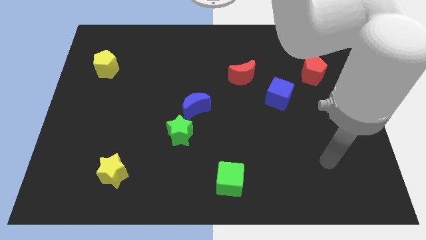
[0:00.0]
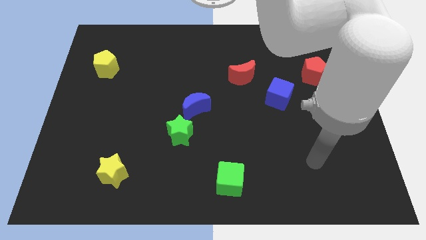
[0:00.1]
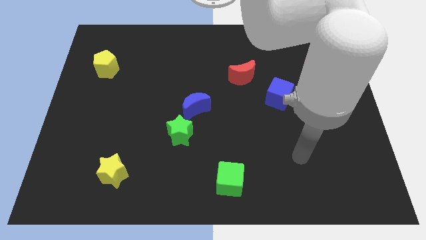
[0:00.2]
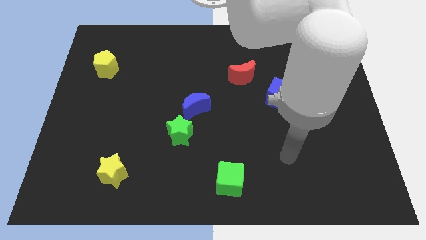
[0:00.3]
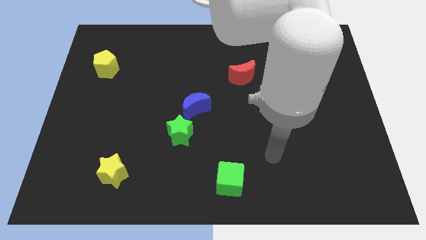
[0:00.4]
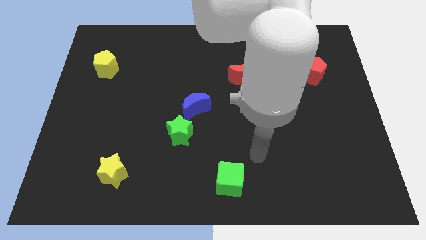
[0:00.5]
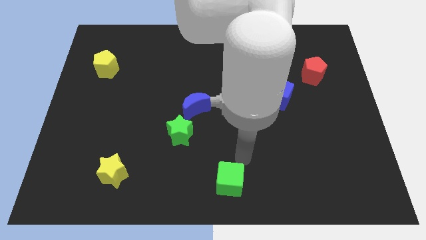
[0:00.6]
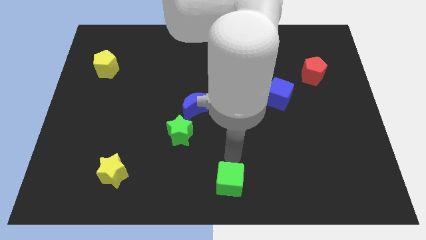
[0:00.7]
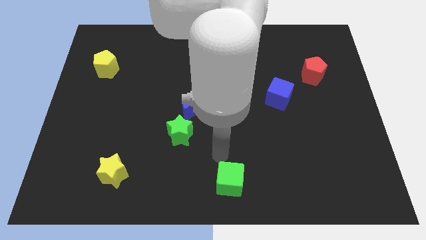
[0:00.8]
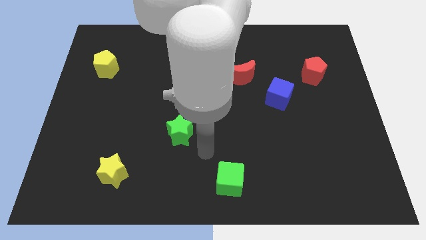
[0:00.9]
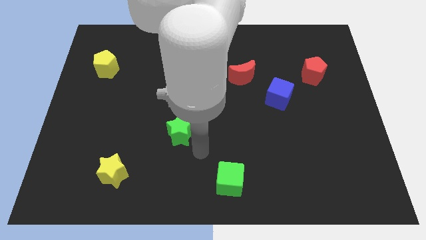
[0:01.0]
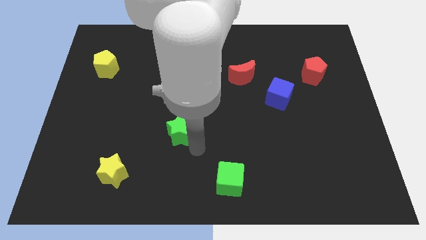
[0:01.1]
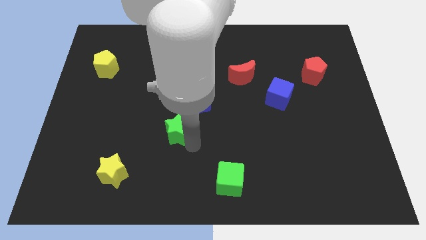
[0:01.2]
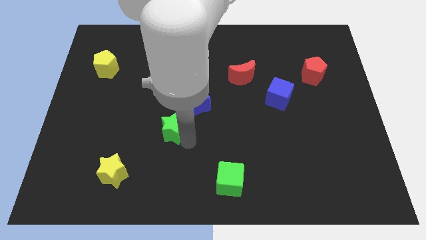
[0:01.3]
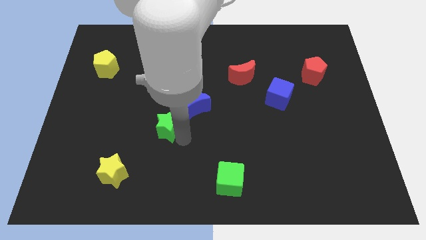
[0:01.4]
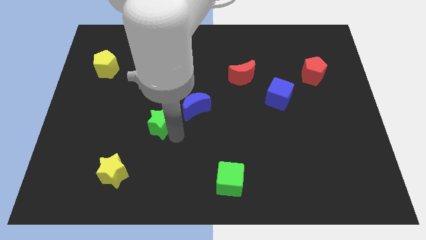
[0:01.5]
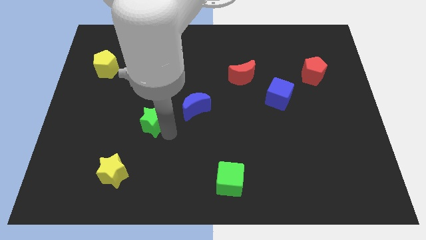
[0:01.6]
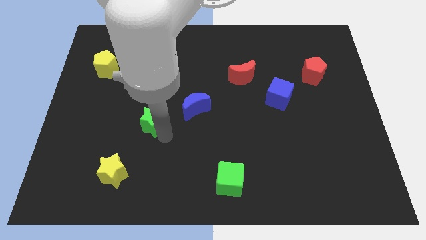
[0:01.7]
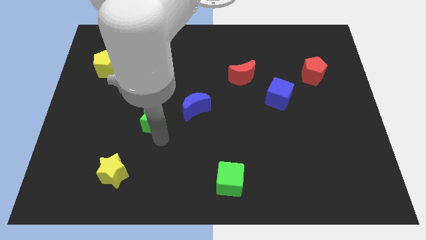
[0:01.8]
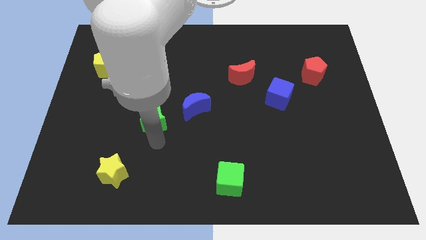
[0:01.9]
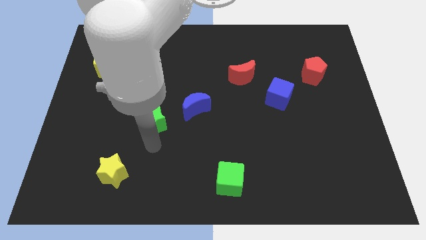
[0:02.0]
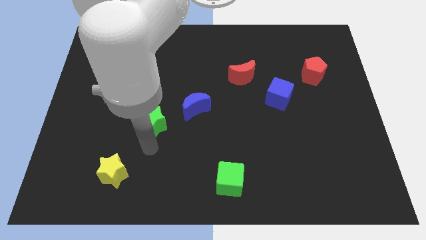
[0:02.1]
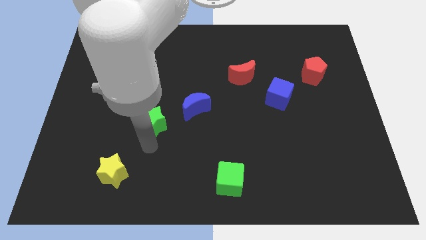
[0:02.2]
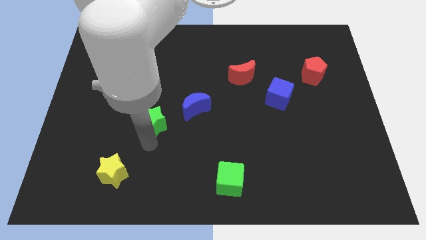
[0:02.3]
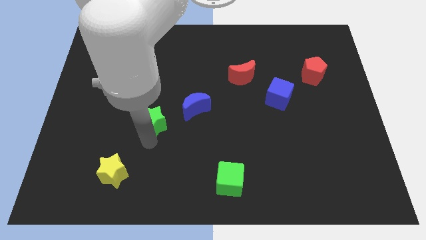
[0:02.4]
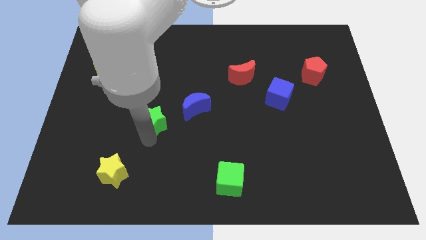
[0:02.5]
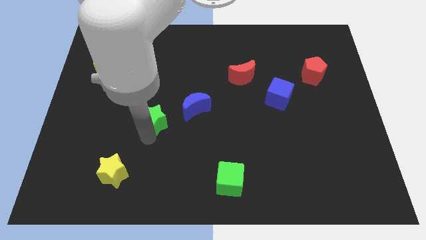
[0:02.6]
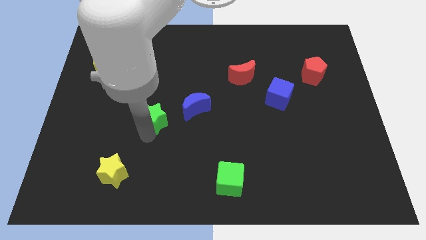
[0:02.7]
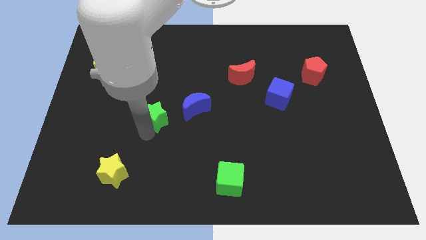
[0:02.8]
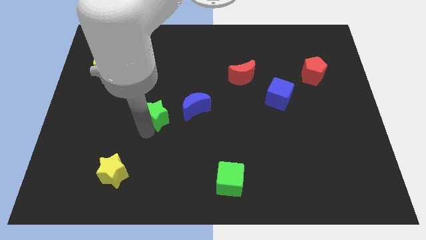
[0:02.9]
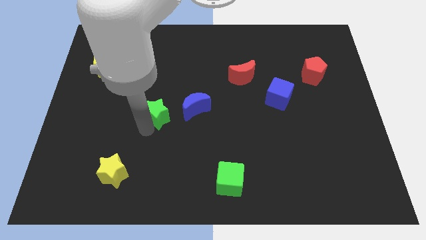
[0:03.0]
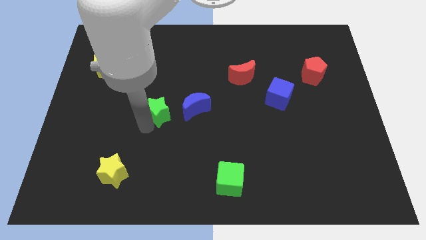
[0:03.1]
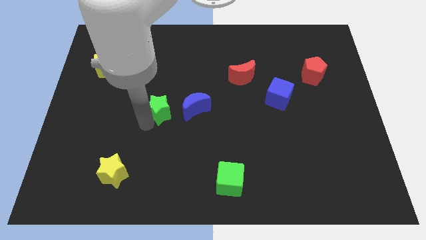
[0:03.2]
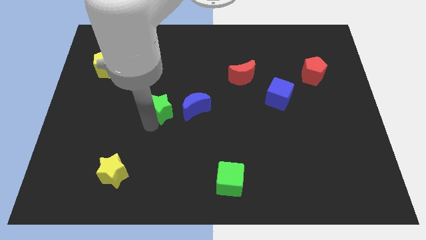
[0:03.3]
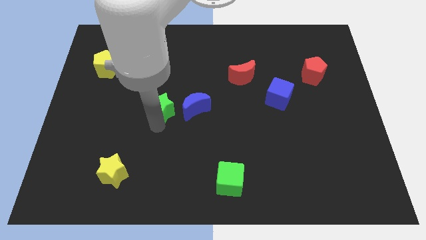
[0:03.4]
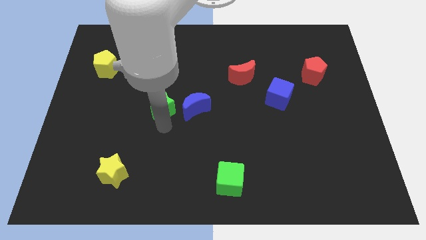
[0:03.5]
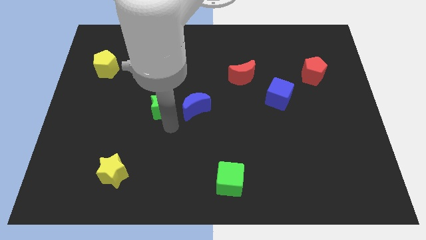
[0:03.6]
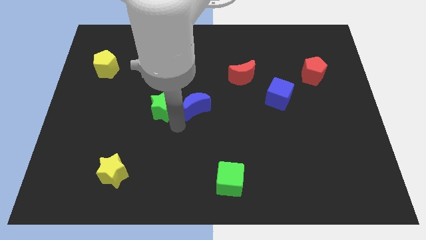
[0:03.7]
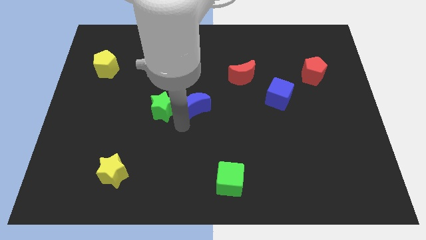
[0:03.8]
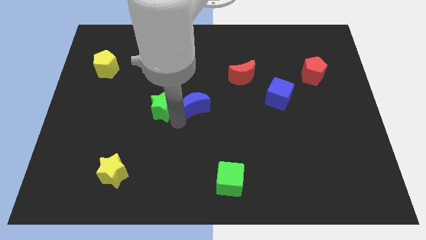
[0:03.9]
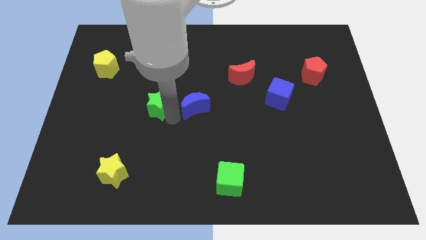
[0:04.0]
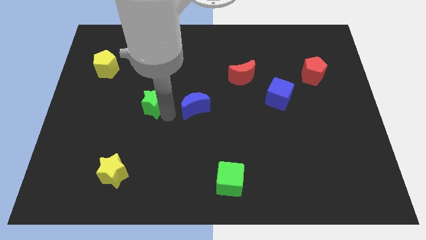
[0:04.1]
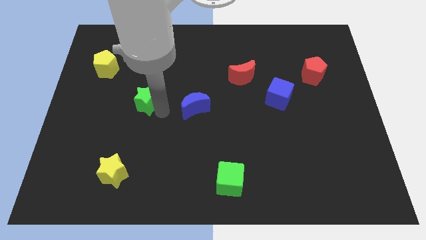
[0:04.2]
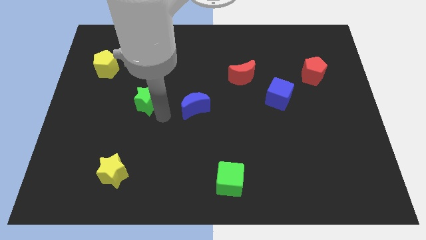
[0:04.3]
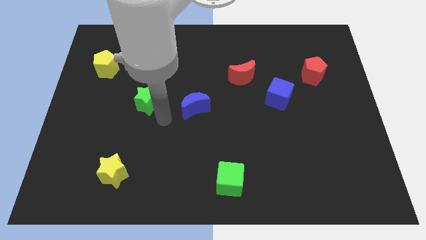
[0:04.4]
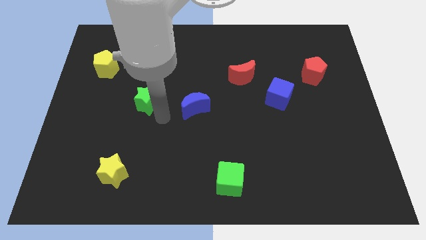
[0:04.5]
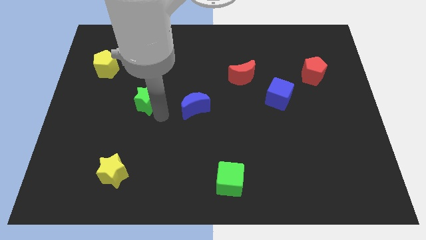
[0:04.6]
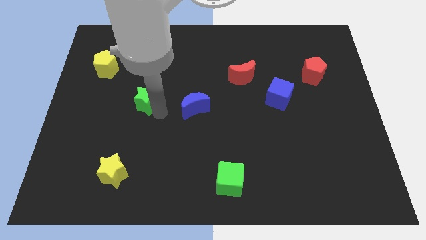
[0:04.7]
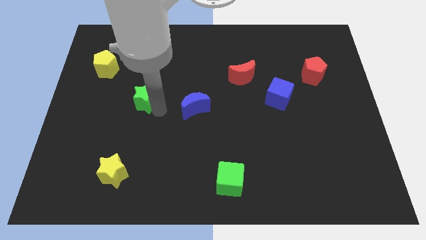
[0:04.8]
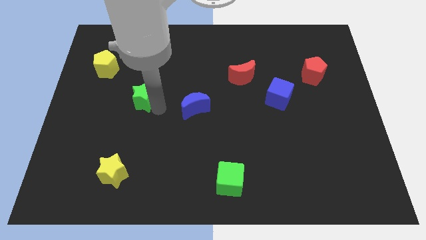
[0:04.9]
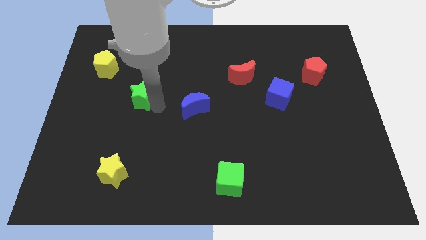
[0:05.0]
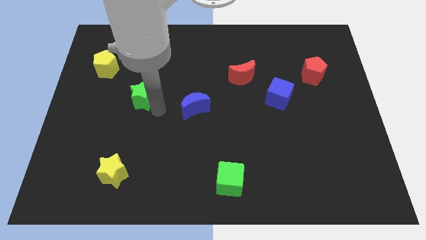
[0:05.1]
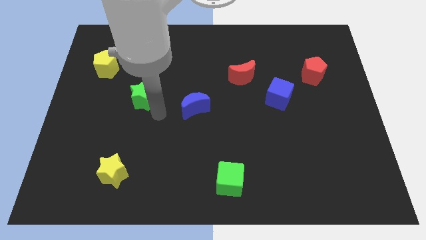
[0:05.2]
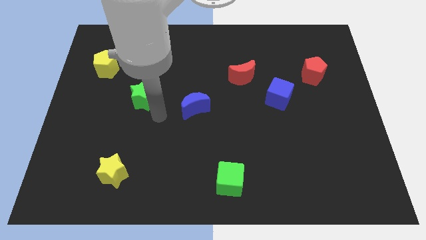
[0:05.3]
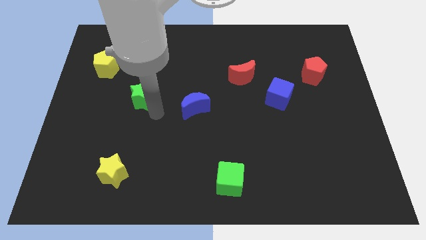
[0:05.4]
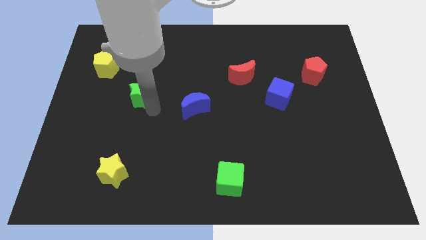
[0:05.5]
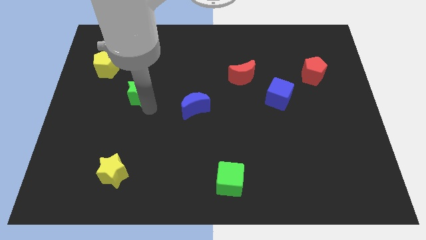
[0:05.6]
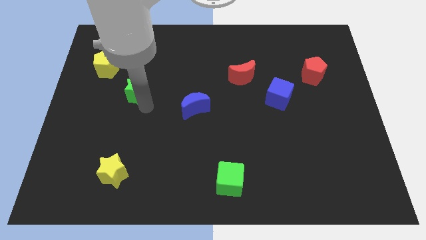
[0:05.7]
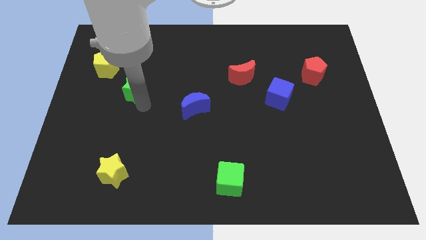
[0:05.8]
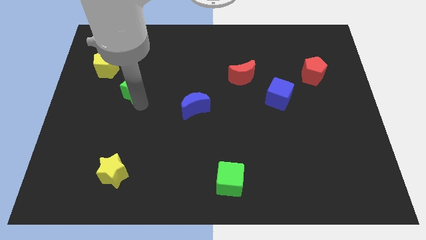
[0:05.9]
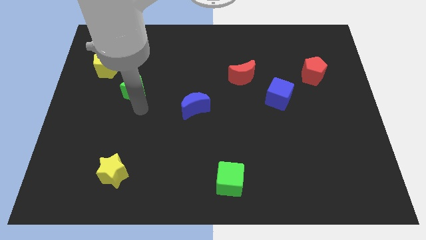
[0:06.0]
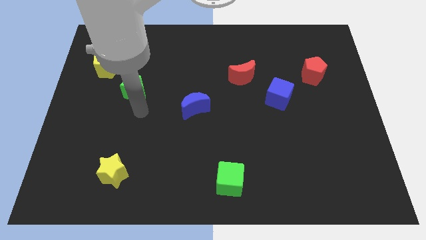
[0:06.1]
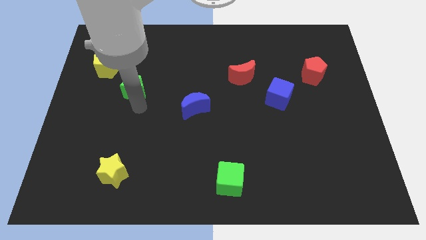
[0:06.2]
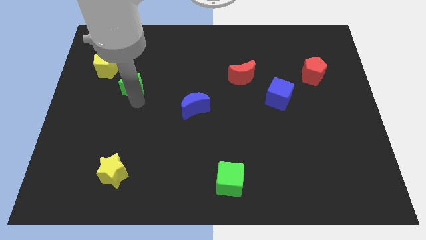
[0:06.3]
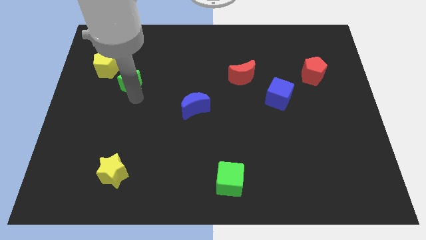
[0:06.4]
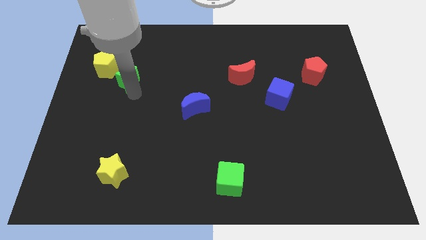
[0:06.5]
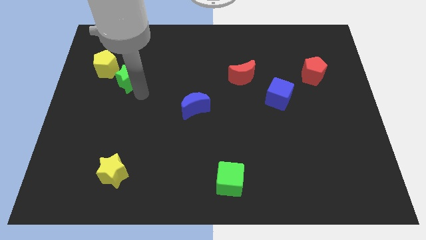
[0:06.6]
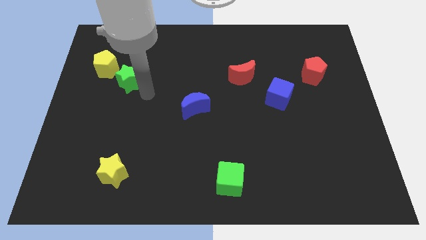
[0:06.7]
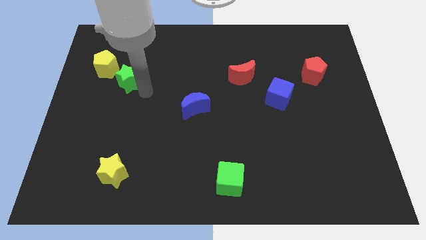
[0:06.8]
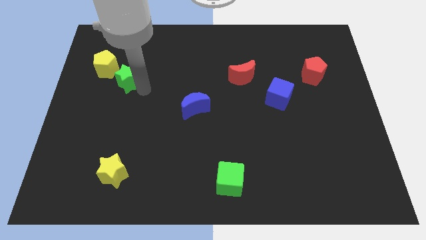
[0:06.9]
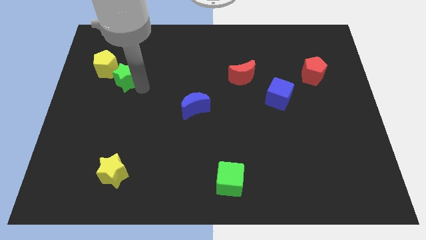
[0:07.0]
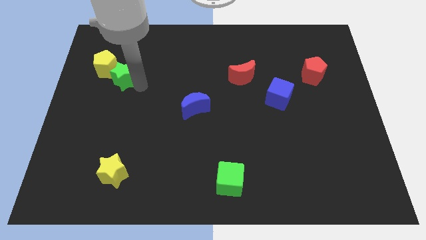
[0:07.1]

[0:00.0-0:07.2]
slide the green star to the yellow pentagon
